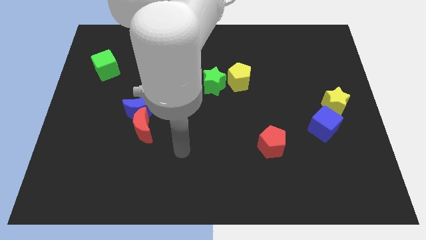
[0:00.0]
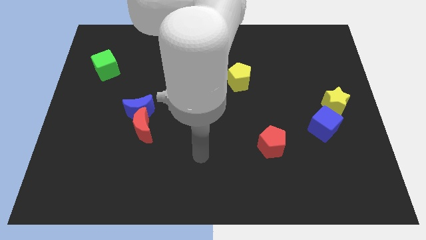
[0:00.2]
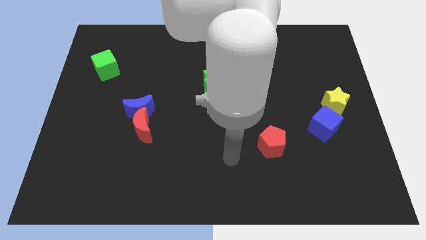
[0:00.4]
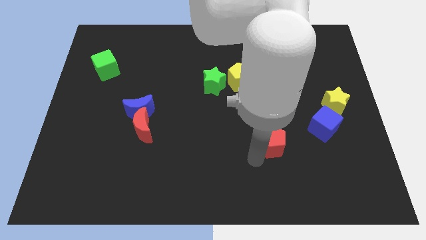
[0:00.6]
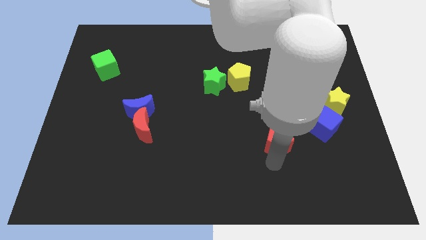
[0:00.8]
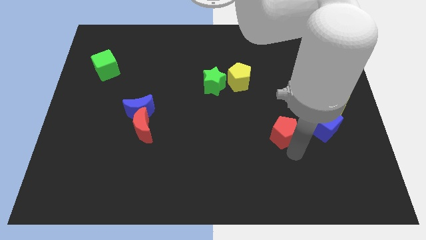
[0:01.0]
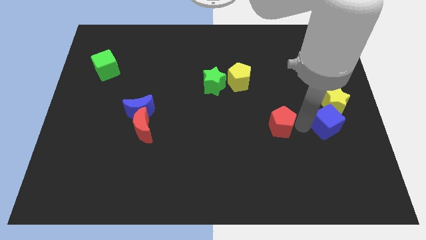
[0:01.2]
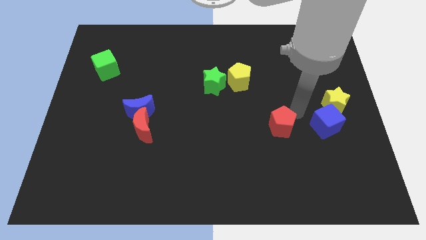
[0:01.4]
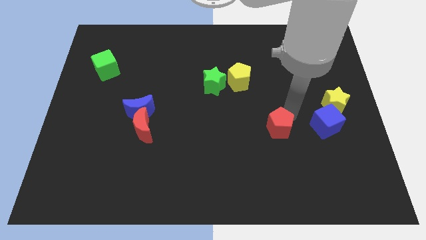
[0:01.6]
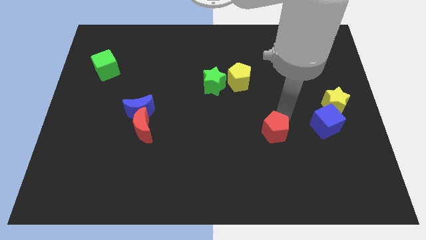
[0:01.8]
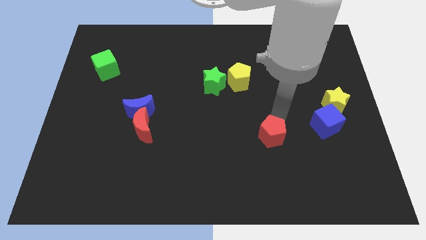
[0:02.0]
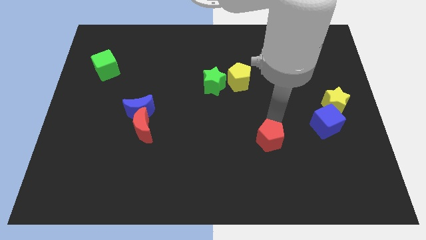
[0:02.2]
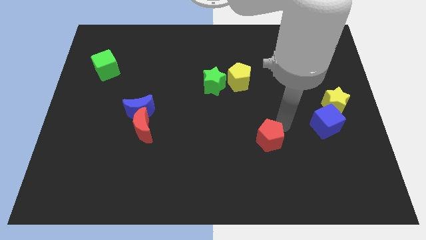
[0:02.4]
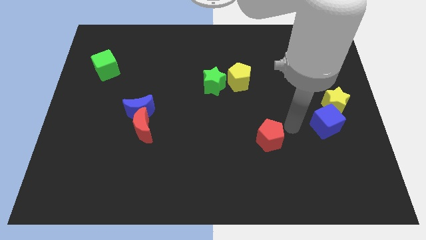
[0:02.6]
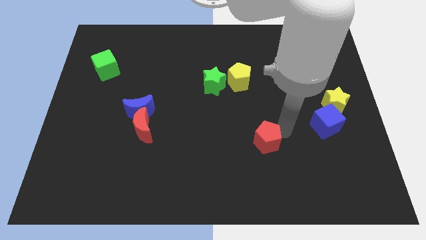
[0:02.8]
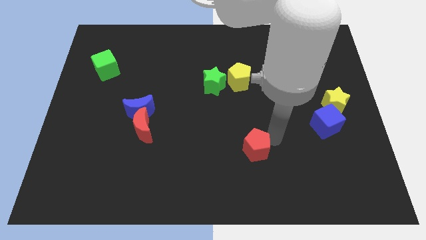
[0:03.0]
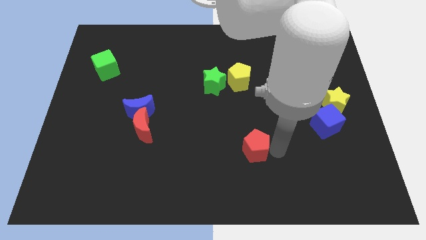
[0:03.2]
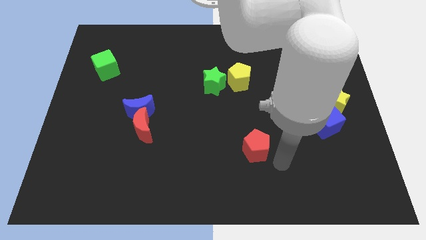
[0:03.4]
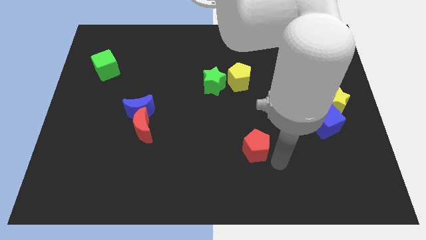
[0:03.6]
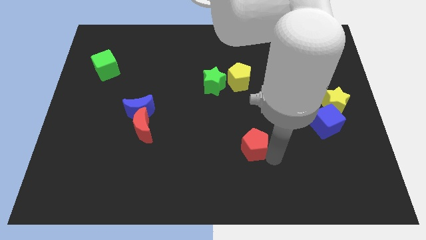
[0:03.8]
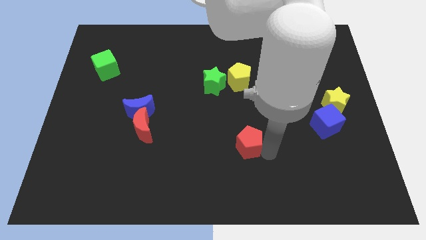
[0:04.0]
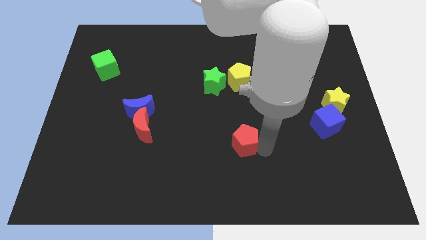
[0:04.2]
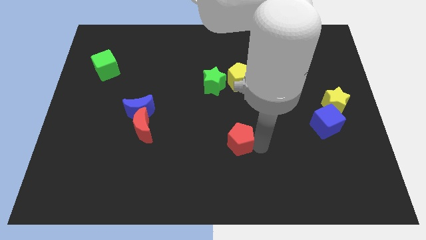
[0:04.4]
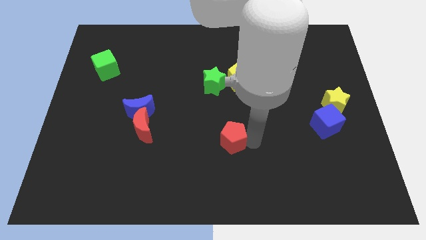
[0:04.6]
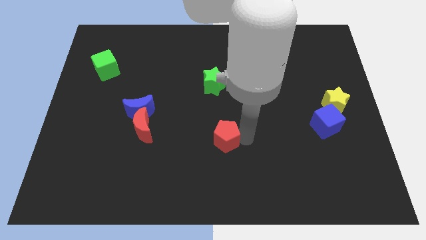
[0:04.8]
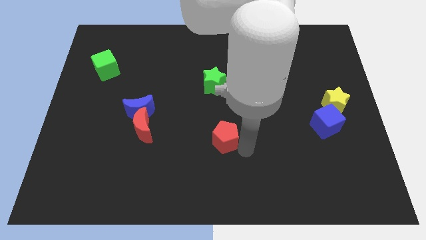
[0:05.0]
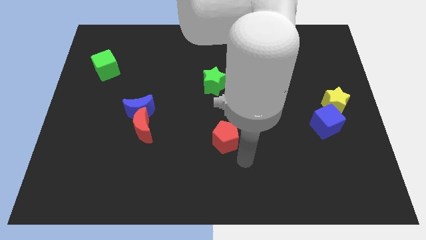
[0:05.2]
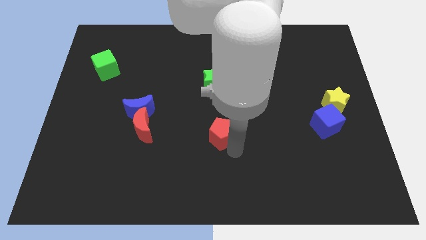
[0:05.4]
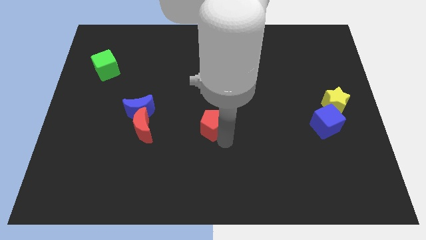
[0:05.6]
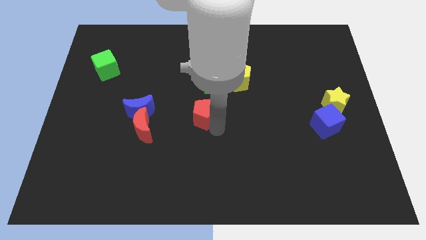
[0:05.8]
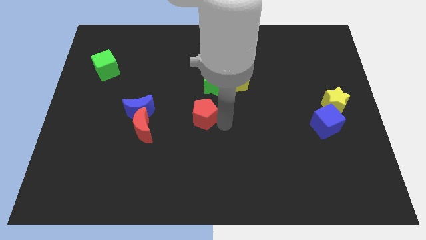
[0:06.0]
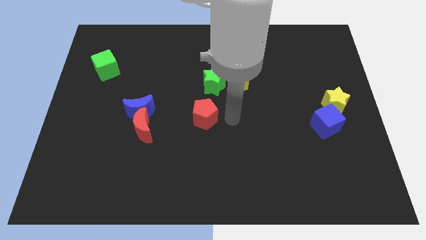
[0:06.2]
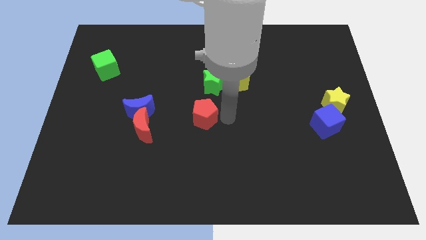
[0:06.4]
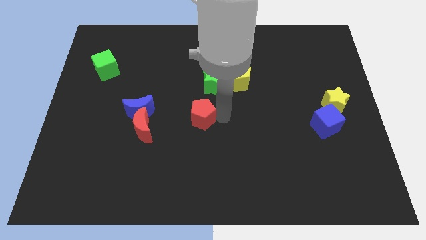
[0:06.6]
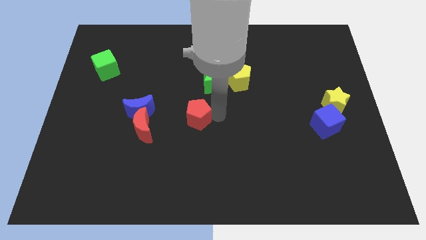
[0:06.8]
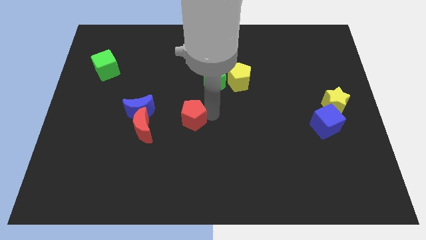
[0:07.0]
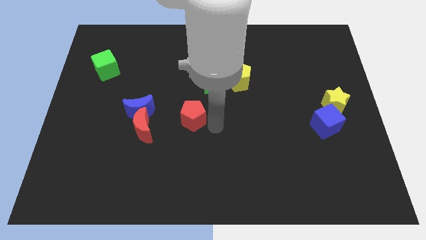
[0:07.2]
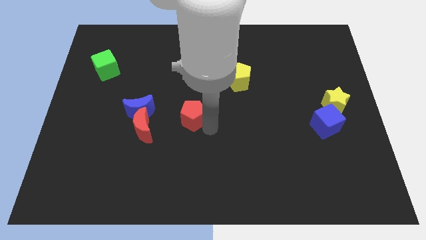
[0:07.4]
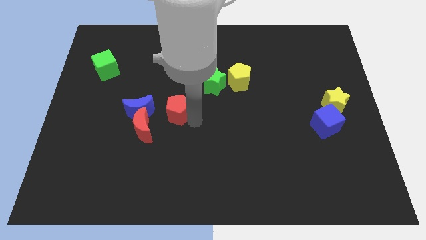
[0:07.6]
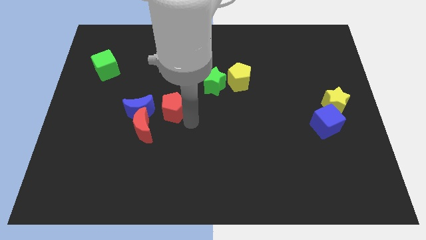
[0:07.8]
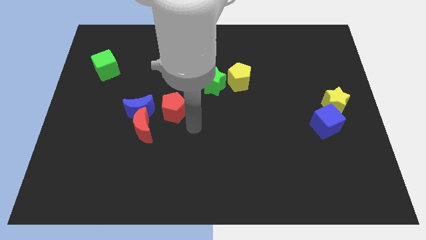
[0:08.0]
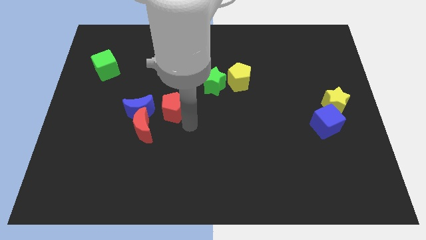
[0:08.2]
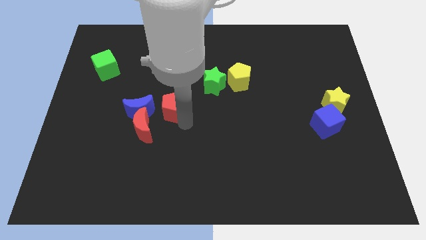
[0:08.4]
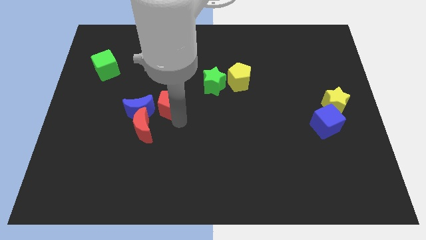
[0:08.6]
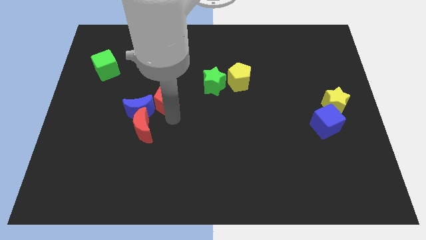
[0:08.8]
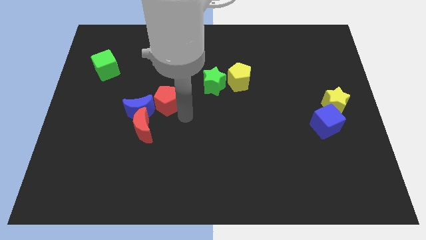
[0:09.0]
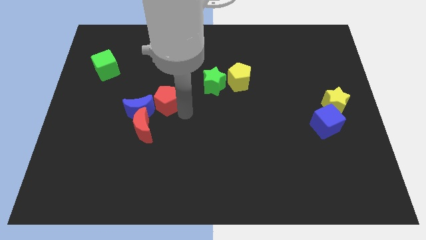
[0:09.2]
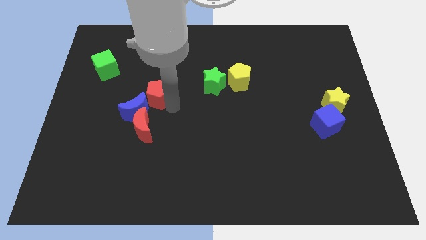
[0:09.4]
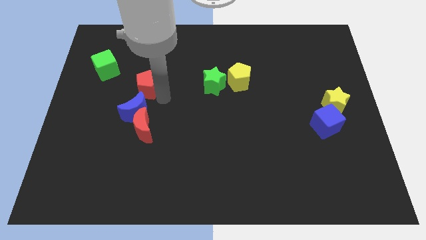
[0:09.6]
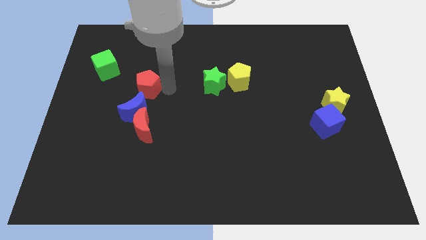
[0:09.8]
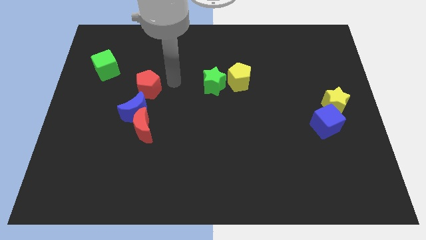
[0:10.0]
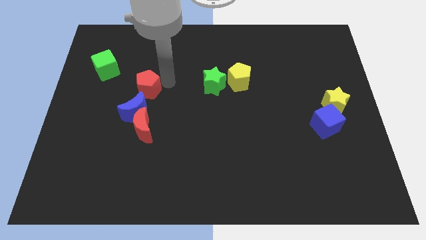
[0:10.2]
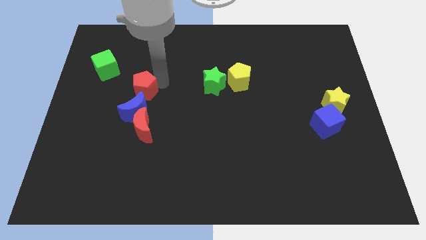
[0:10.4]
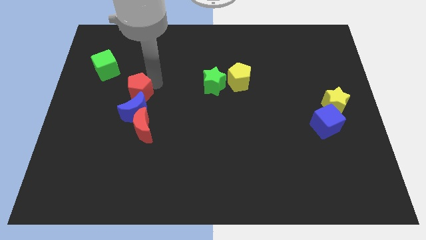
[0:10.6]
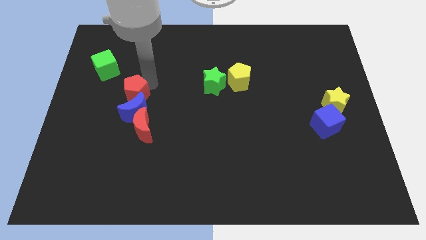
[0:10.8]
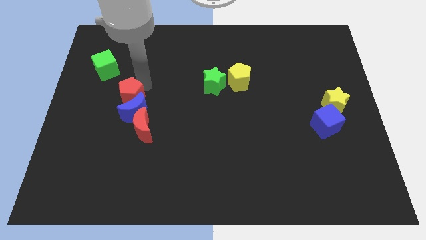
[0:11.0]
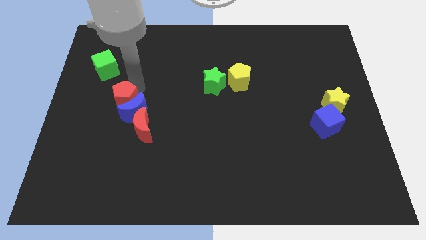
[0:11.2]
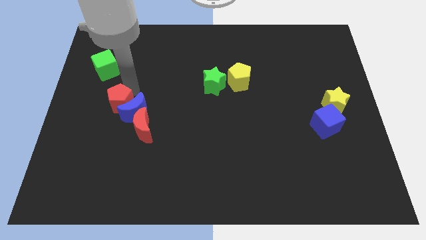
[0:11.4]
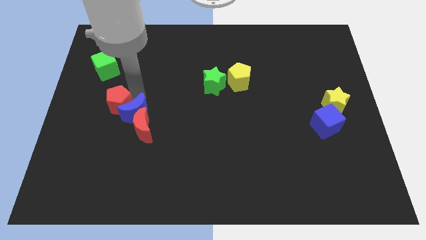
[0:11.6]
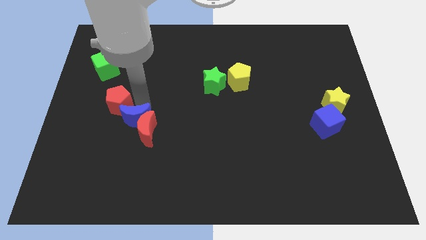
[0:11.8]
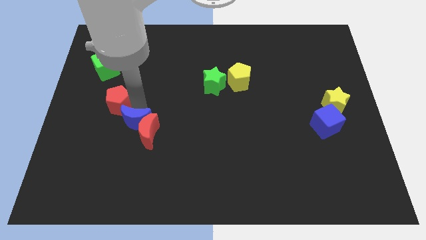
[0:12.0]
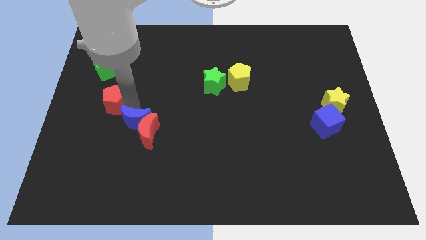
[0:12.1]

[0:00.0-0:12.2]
move the red pentagon to the bottom of the green cube

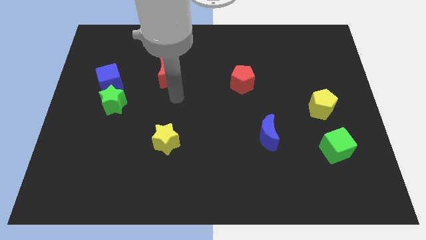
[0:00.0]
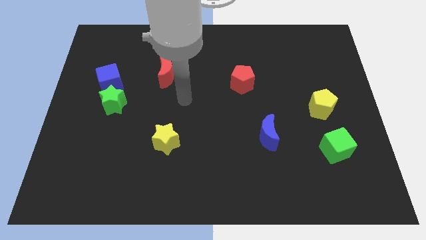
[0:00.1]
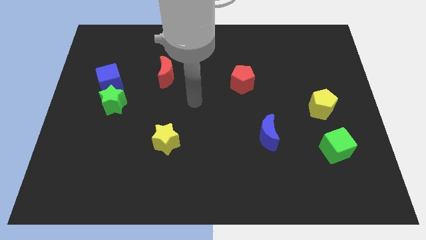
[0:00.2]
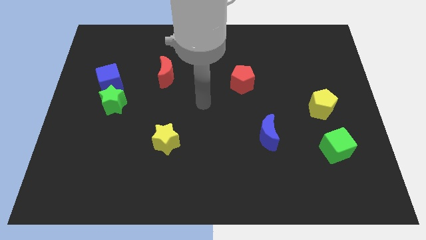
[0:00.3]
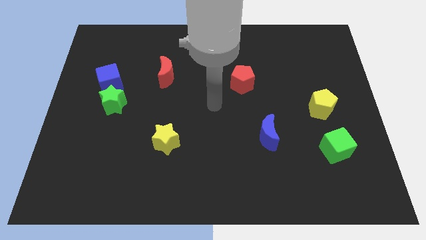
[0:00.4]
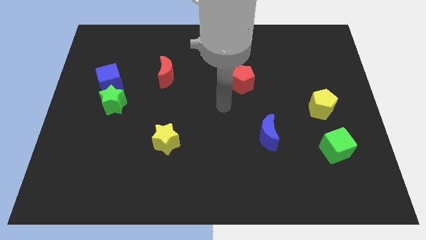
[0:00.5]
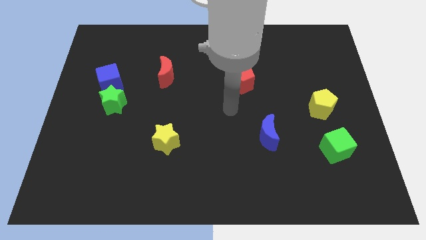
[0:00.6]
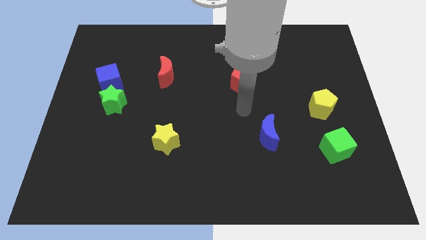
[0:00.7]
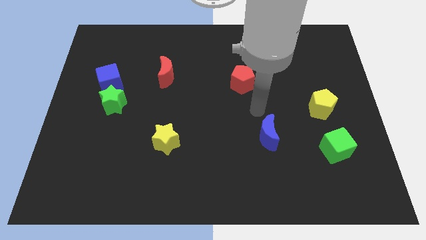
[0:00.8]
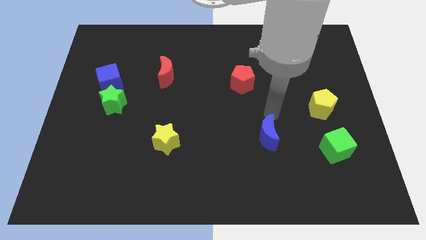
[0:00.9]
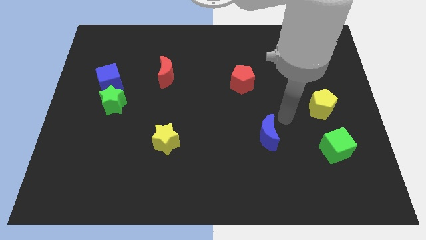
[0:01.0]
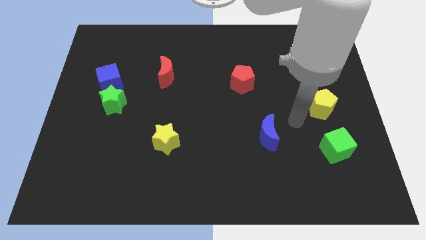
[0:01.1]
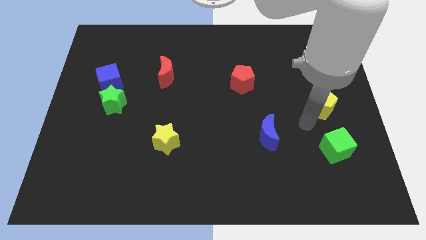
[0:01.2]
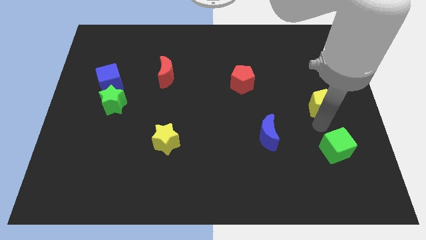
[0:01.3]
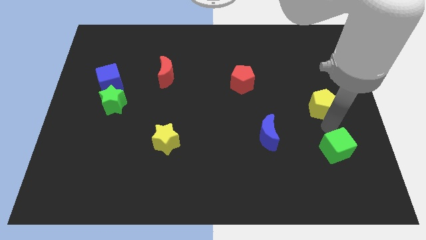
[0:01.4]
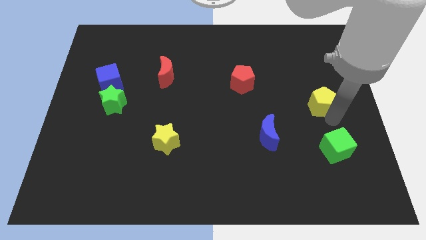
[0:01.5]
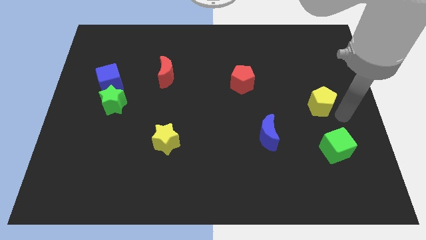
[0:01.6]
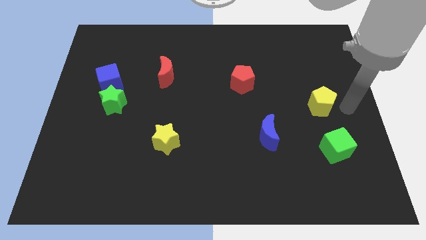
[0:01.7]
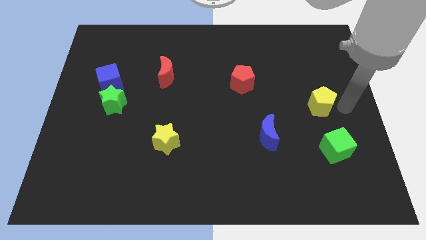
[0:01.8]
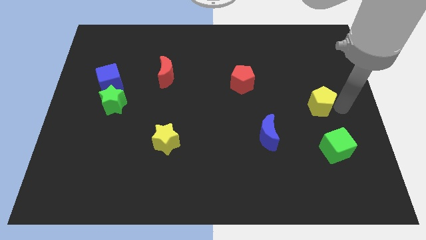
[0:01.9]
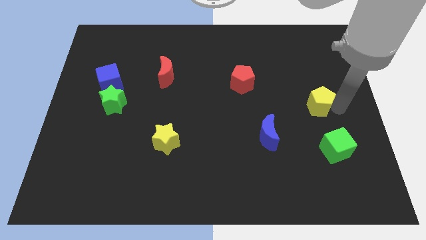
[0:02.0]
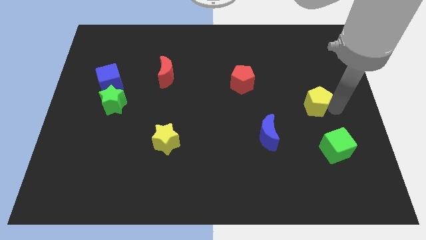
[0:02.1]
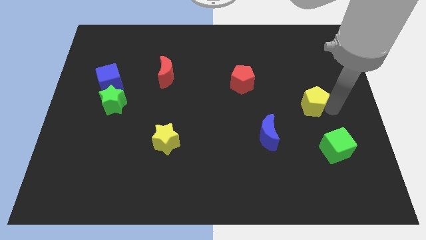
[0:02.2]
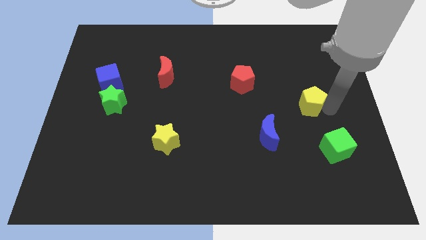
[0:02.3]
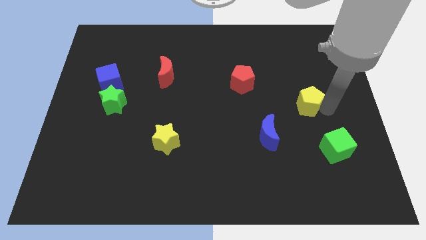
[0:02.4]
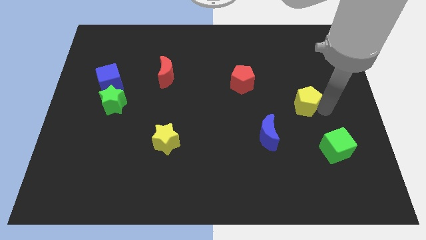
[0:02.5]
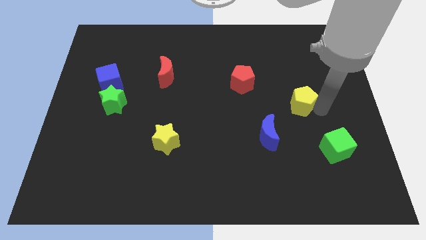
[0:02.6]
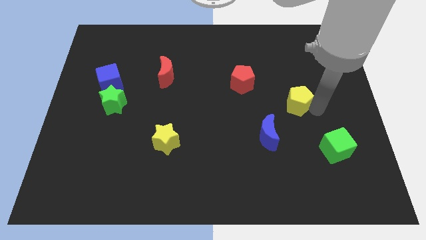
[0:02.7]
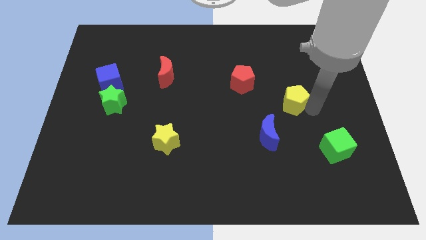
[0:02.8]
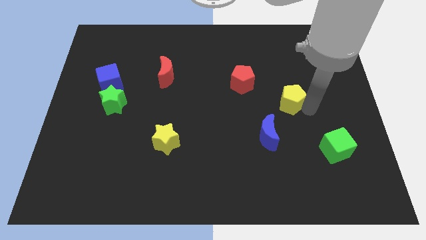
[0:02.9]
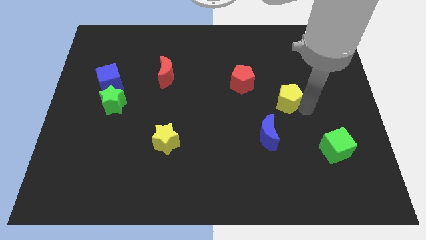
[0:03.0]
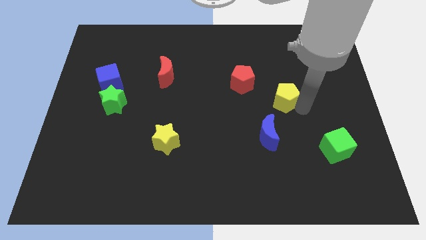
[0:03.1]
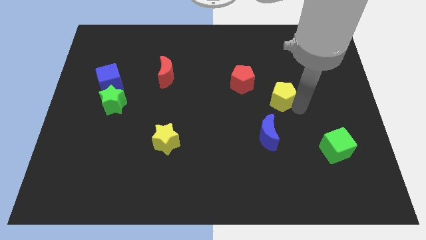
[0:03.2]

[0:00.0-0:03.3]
put the yellow pentagon to the top side of the blue moon
